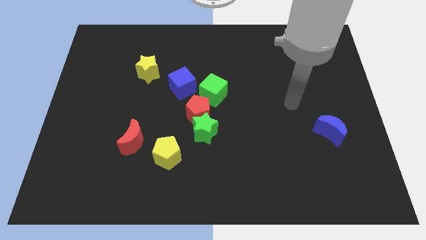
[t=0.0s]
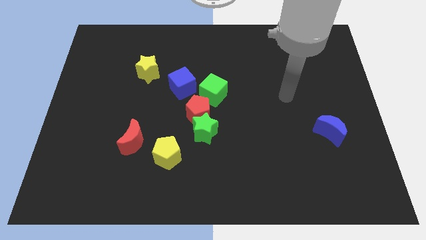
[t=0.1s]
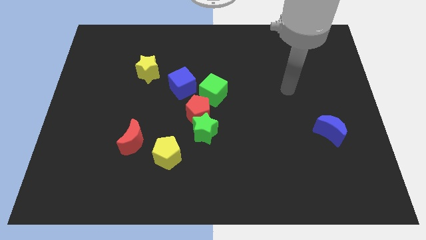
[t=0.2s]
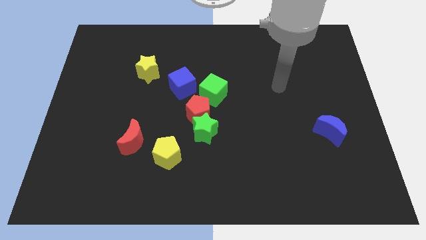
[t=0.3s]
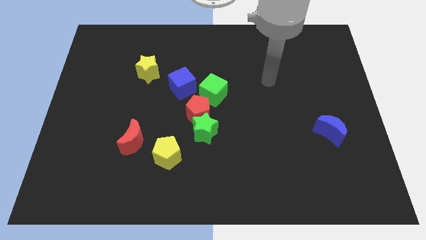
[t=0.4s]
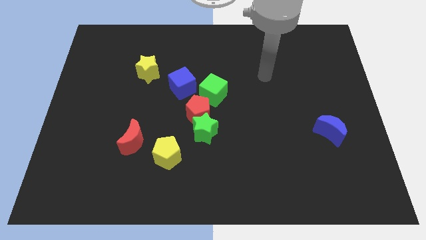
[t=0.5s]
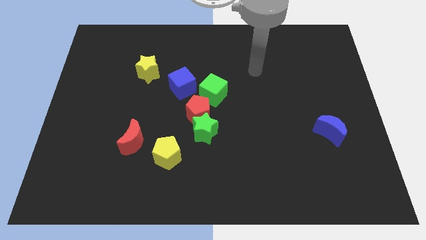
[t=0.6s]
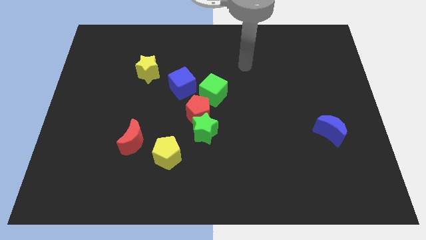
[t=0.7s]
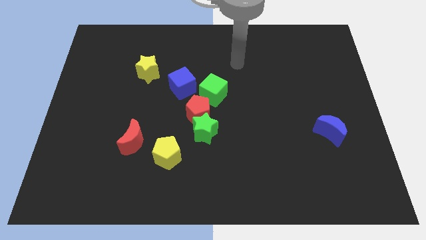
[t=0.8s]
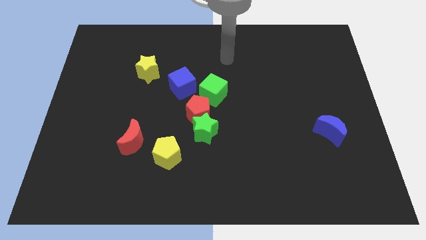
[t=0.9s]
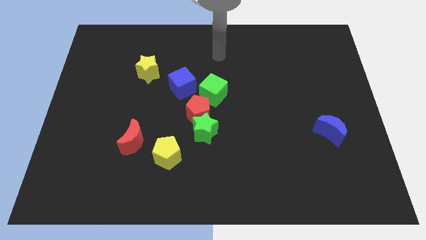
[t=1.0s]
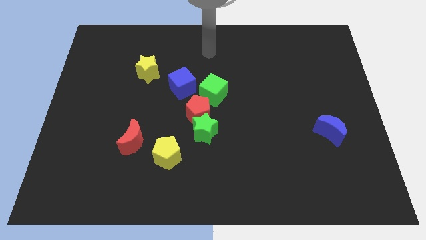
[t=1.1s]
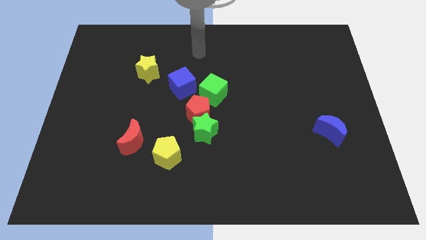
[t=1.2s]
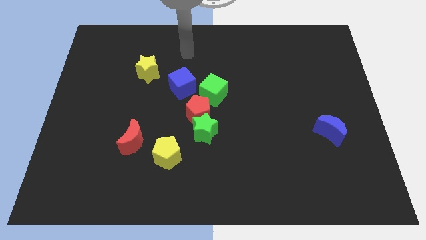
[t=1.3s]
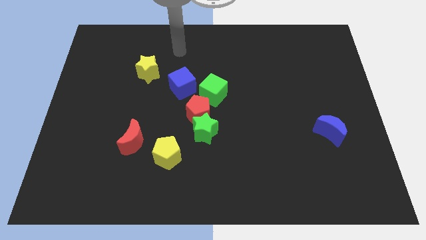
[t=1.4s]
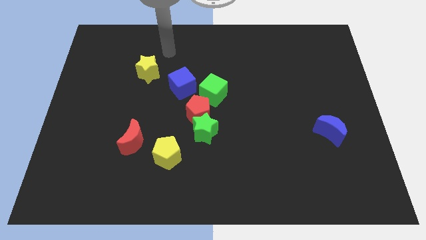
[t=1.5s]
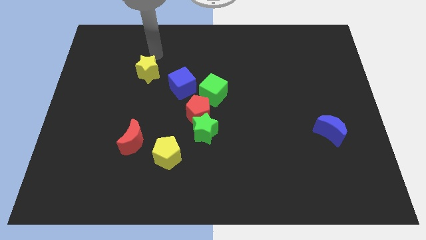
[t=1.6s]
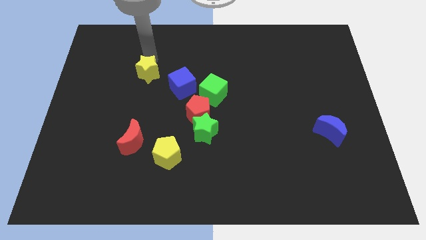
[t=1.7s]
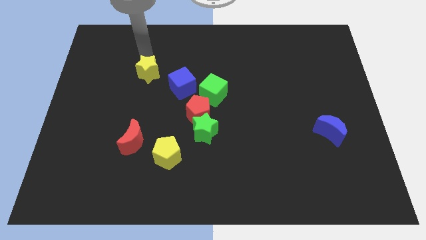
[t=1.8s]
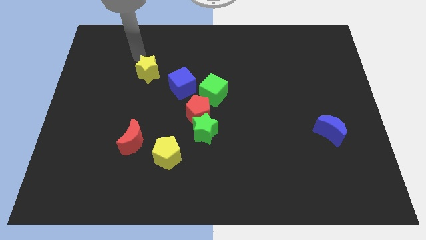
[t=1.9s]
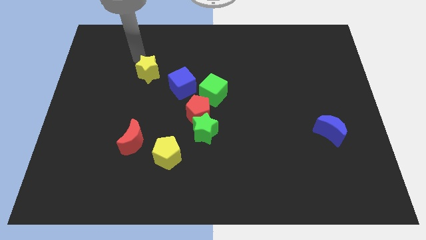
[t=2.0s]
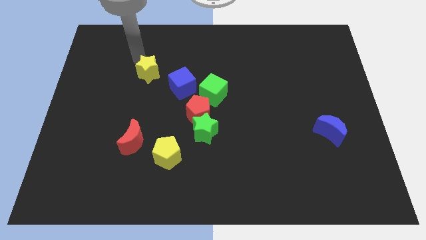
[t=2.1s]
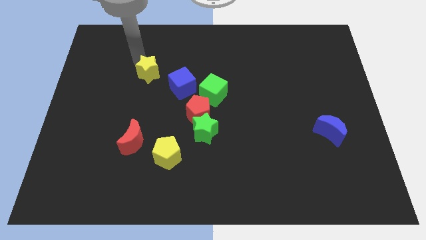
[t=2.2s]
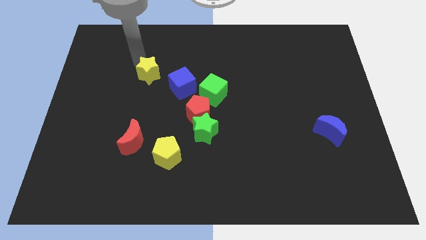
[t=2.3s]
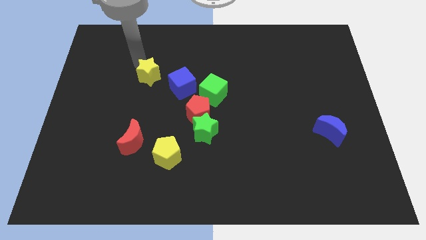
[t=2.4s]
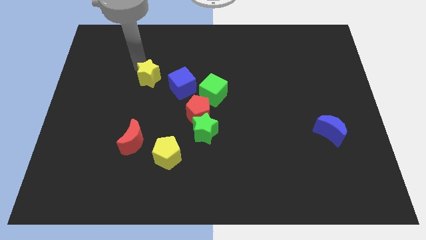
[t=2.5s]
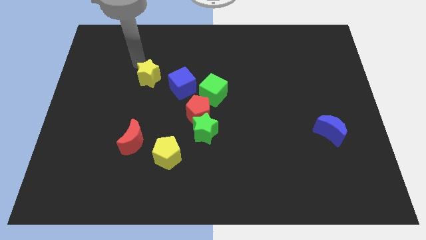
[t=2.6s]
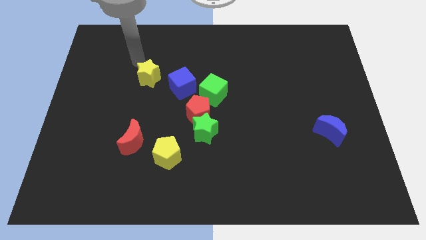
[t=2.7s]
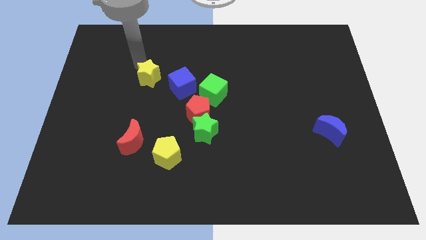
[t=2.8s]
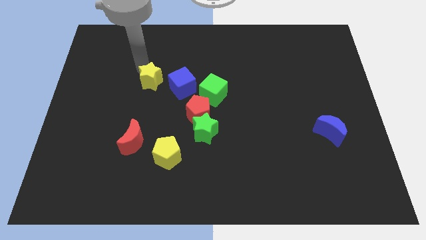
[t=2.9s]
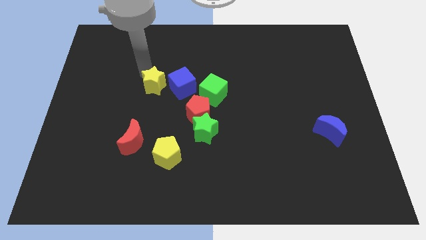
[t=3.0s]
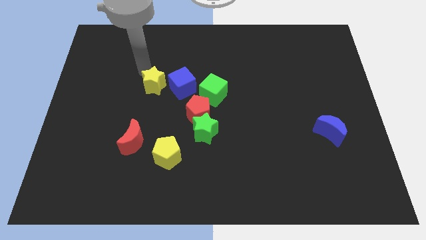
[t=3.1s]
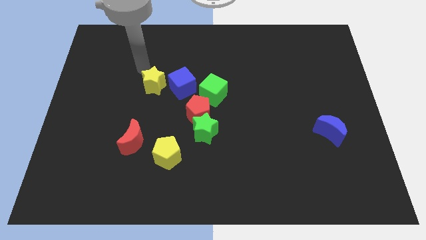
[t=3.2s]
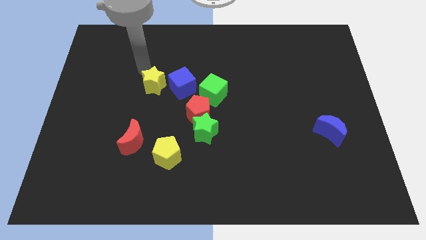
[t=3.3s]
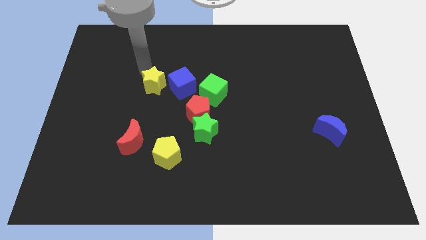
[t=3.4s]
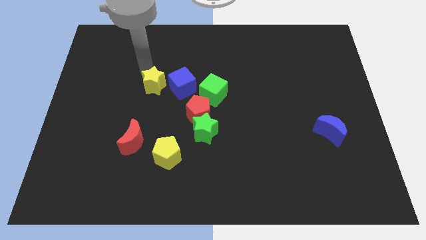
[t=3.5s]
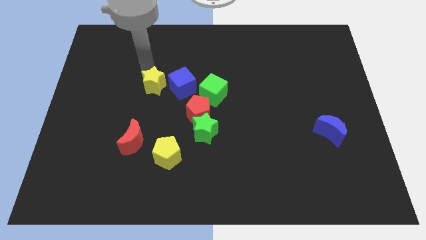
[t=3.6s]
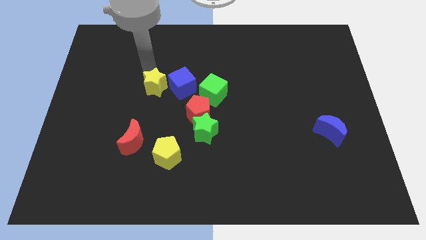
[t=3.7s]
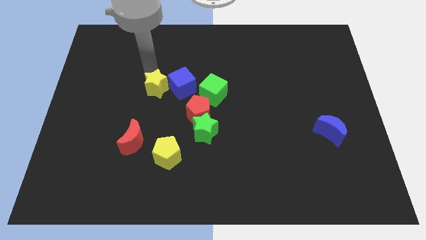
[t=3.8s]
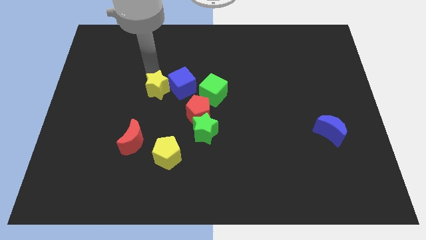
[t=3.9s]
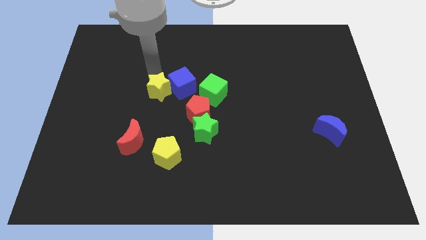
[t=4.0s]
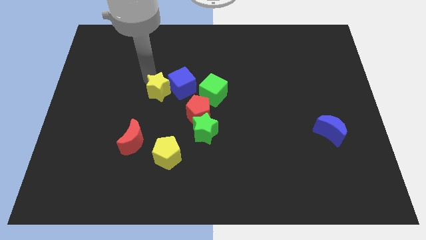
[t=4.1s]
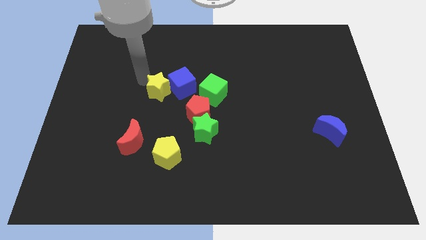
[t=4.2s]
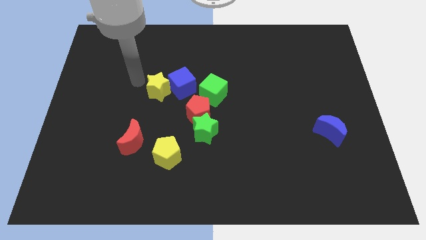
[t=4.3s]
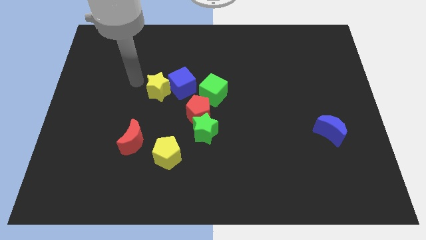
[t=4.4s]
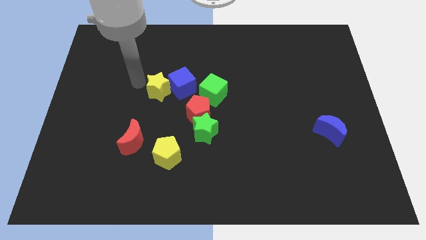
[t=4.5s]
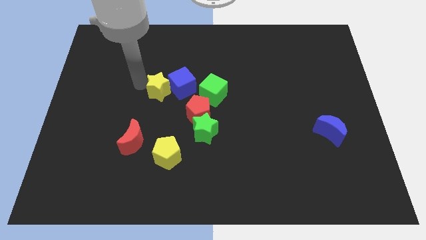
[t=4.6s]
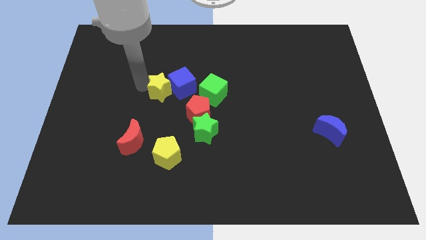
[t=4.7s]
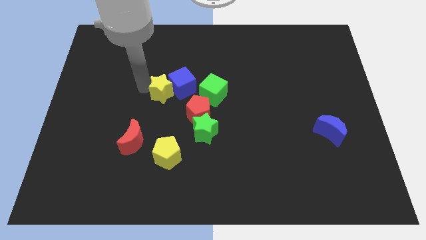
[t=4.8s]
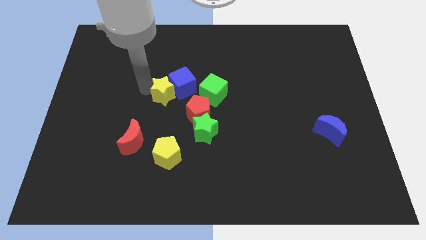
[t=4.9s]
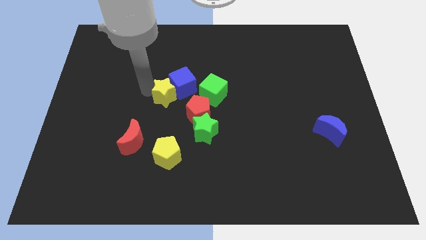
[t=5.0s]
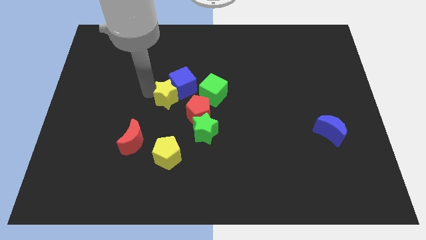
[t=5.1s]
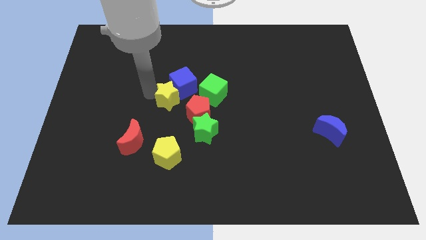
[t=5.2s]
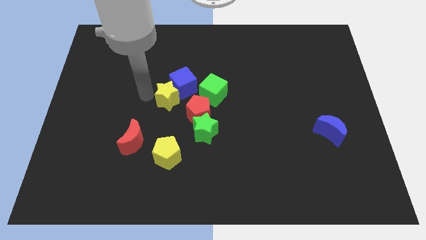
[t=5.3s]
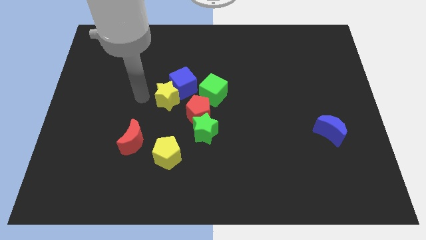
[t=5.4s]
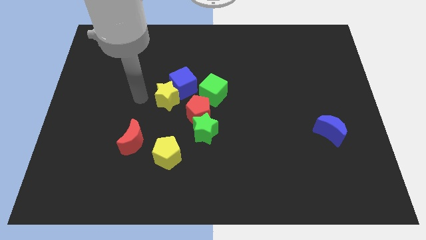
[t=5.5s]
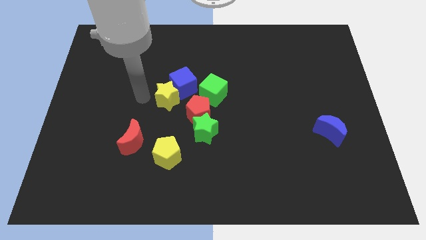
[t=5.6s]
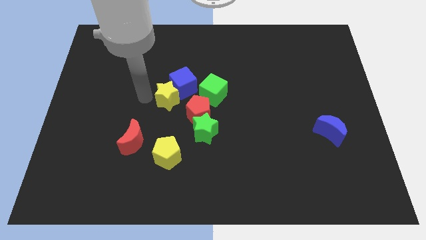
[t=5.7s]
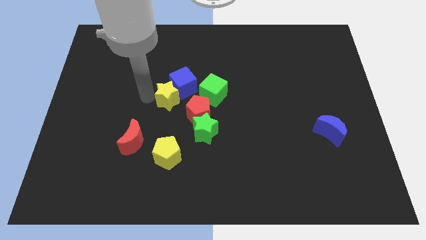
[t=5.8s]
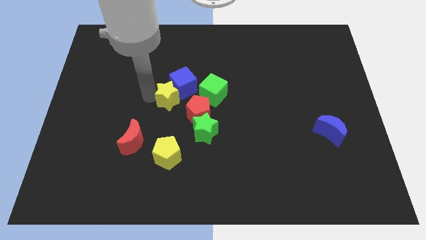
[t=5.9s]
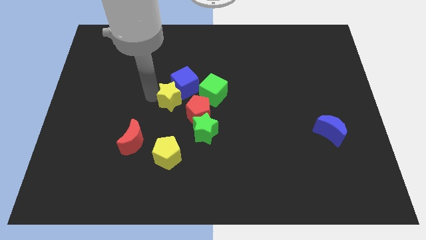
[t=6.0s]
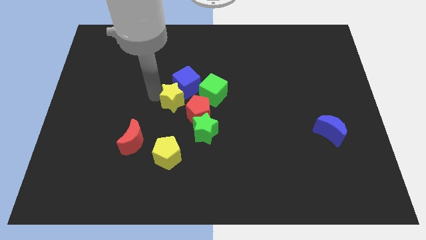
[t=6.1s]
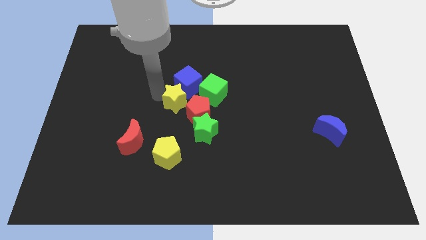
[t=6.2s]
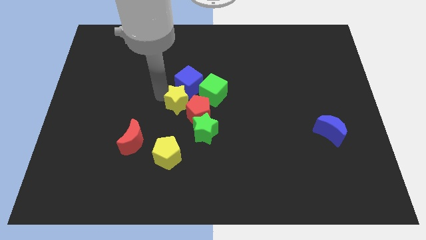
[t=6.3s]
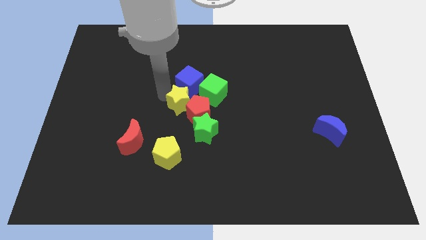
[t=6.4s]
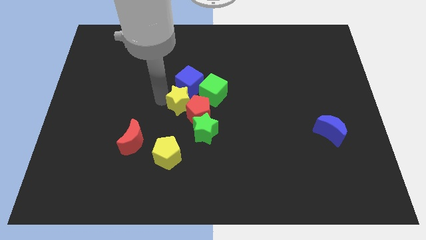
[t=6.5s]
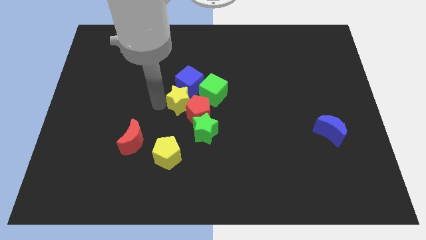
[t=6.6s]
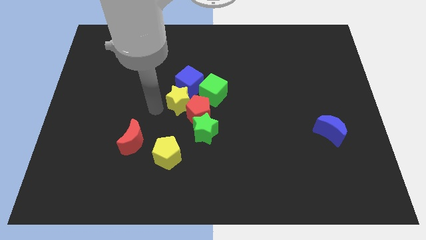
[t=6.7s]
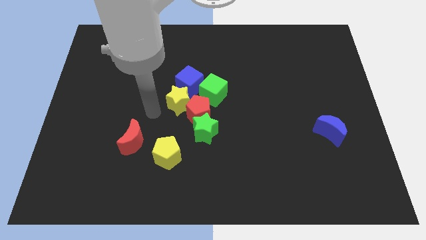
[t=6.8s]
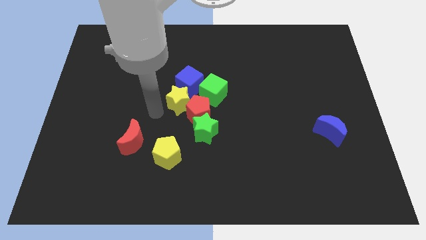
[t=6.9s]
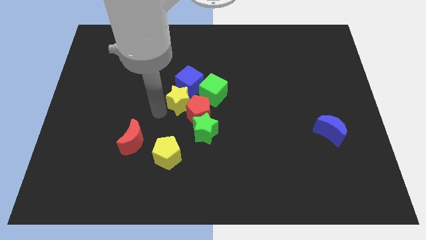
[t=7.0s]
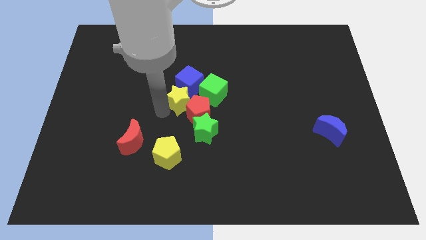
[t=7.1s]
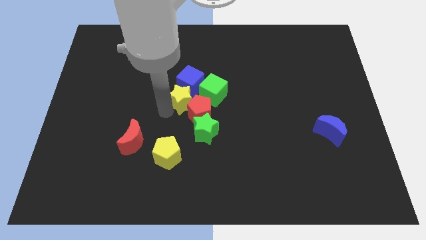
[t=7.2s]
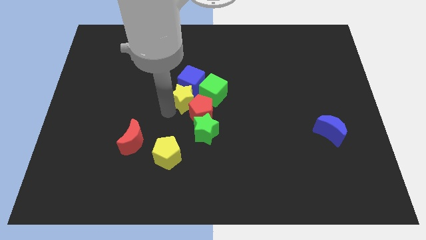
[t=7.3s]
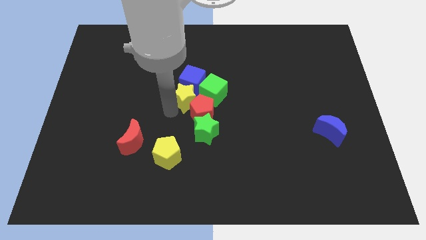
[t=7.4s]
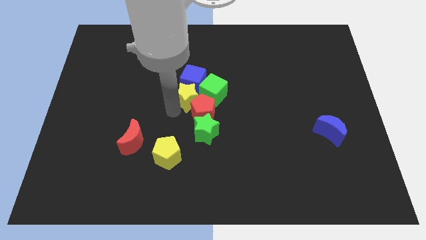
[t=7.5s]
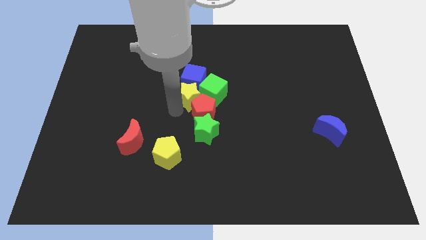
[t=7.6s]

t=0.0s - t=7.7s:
slide the yellow star close to the green cube

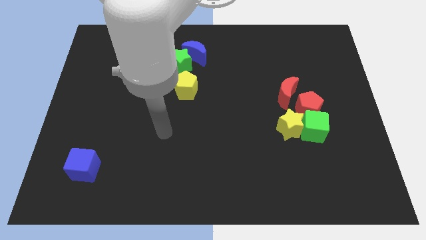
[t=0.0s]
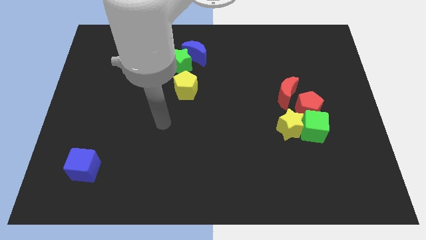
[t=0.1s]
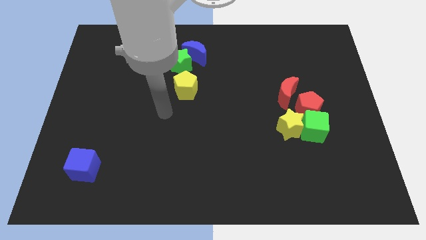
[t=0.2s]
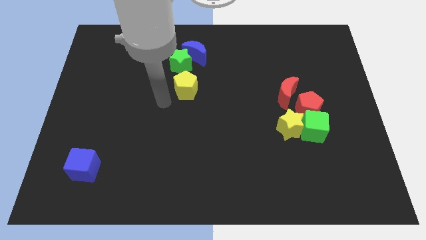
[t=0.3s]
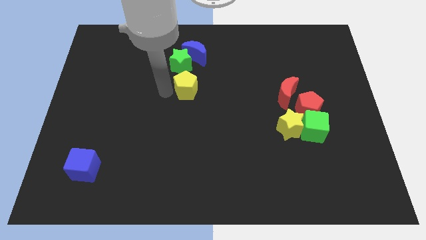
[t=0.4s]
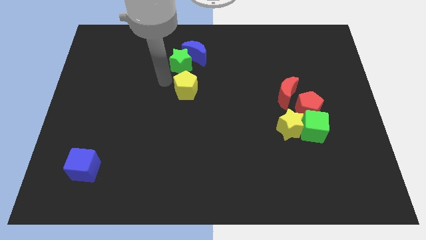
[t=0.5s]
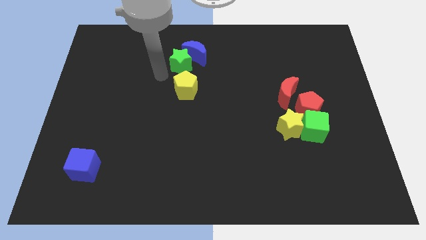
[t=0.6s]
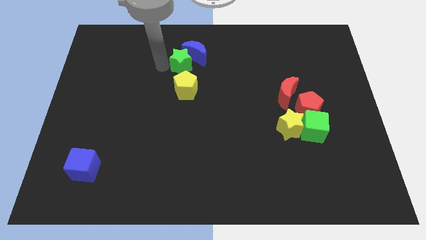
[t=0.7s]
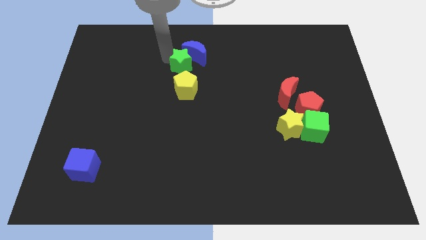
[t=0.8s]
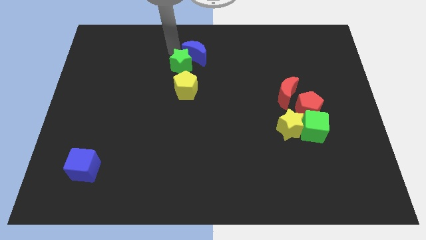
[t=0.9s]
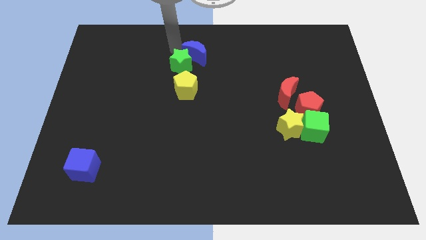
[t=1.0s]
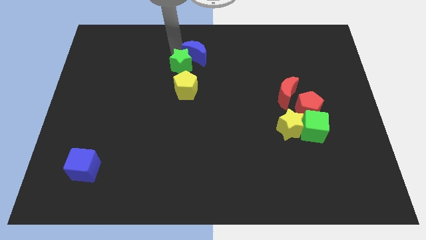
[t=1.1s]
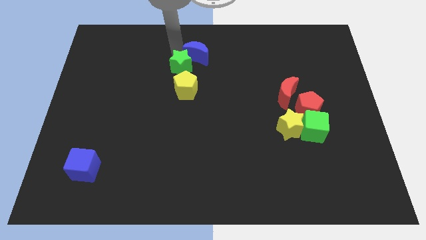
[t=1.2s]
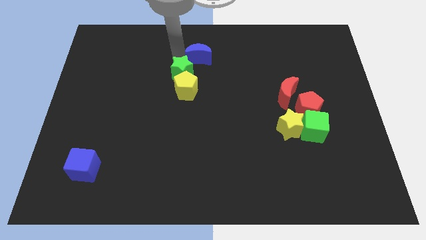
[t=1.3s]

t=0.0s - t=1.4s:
put the green star towards the yellow pentagon
